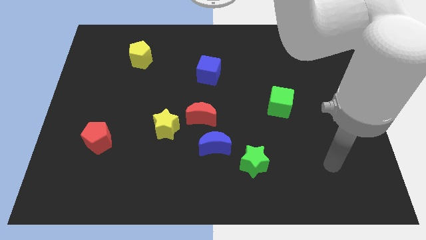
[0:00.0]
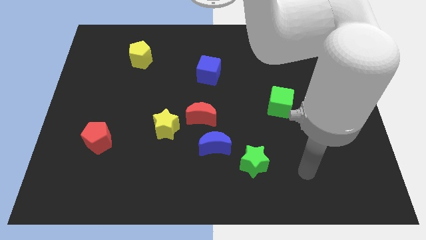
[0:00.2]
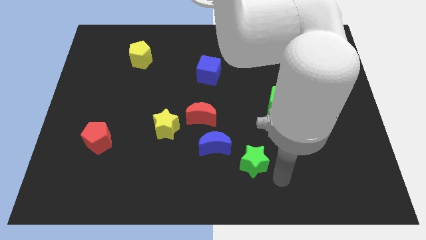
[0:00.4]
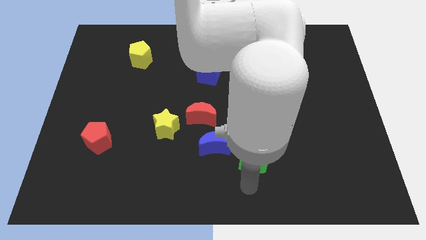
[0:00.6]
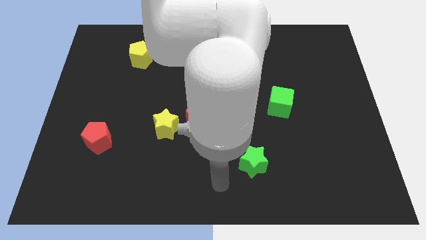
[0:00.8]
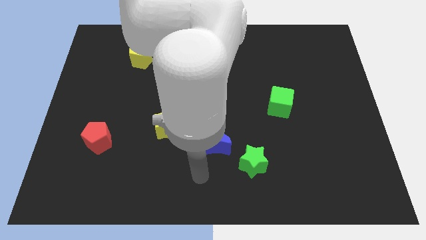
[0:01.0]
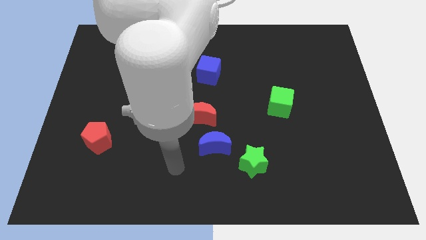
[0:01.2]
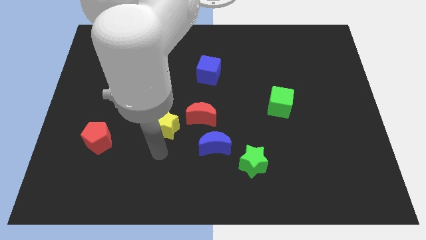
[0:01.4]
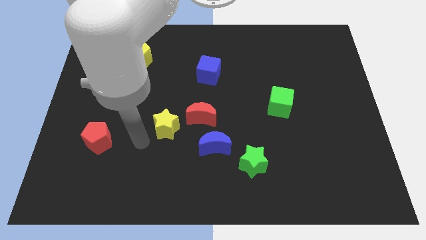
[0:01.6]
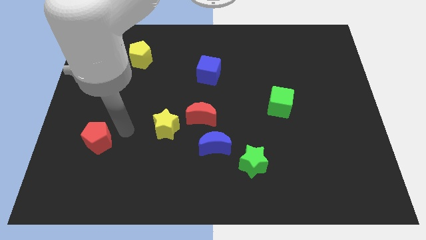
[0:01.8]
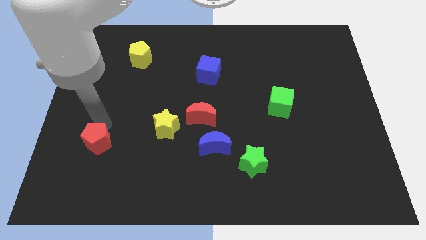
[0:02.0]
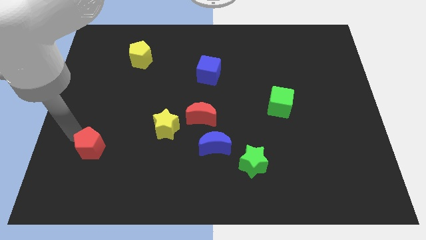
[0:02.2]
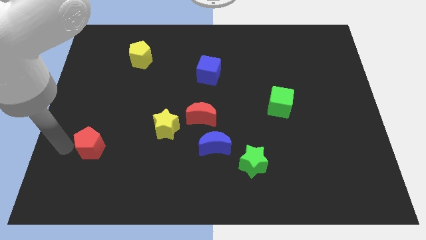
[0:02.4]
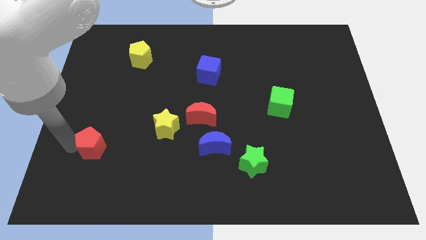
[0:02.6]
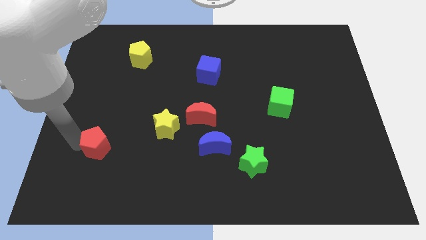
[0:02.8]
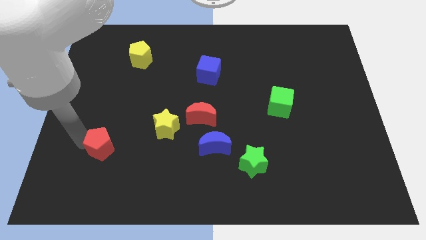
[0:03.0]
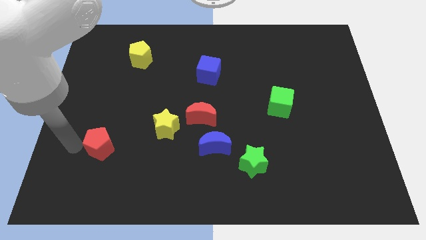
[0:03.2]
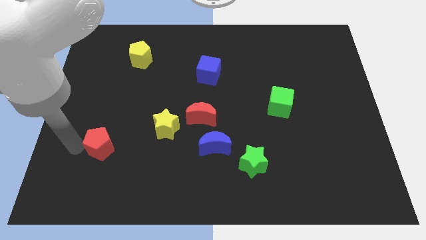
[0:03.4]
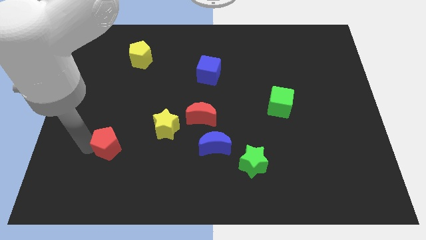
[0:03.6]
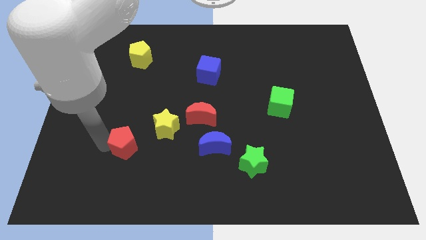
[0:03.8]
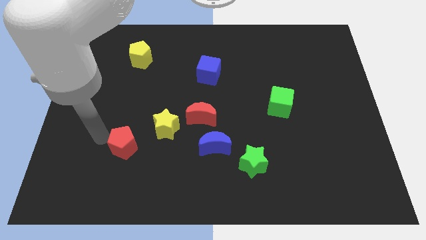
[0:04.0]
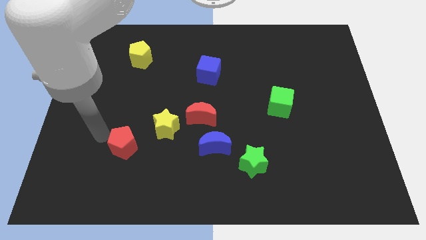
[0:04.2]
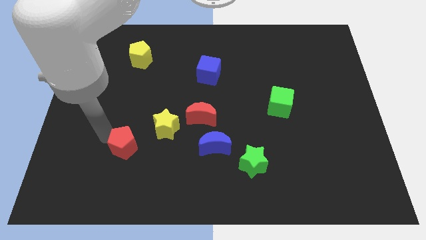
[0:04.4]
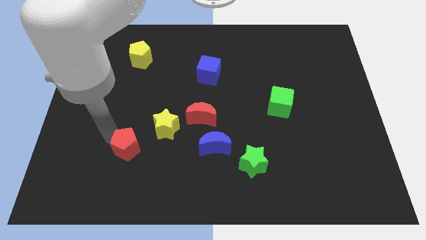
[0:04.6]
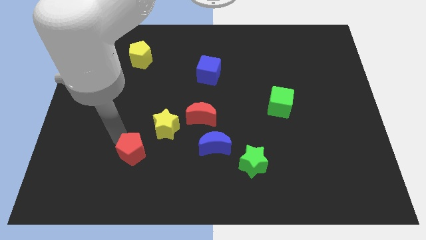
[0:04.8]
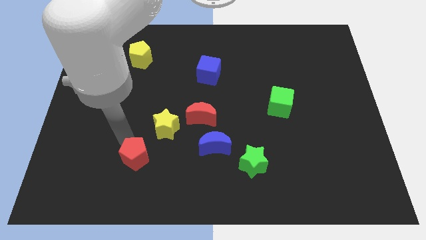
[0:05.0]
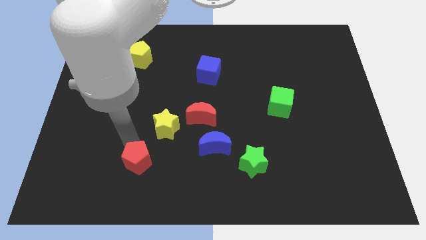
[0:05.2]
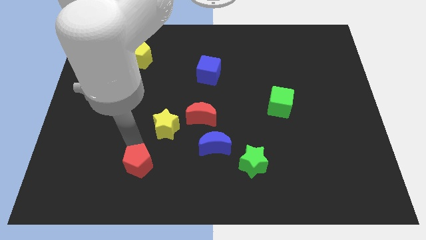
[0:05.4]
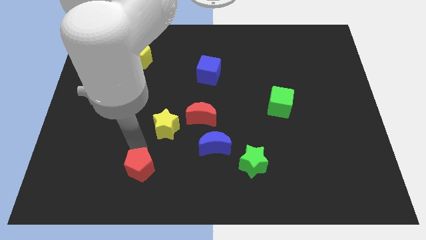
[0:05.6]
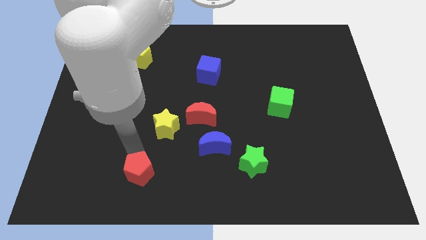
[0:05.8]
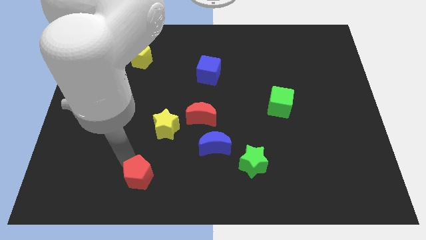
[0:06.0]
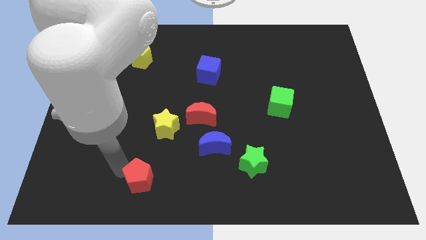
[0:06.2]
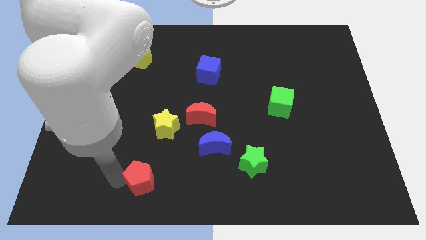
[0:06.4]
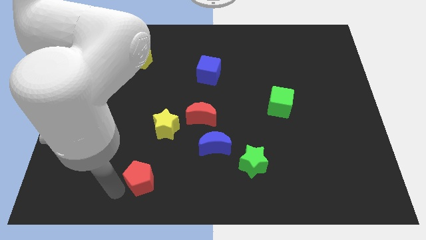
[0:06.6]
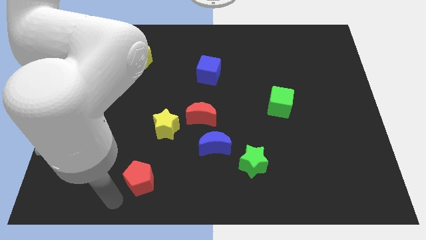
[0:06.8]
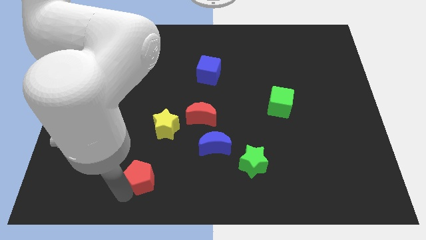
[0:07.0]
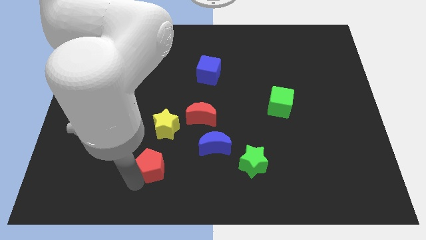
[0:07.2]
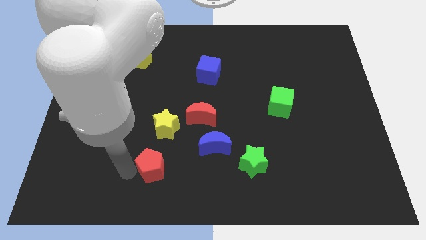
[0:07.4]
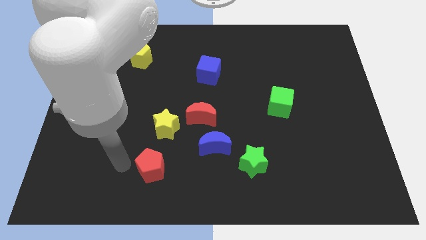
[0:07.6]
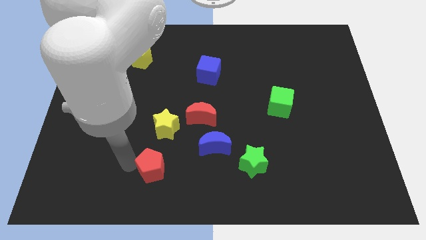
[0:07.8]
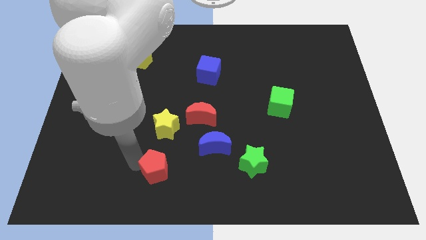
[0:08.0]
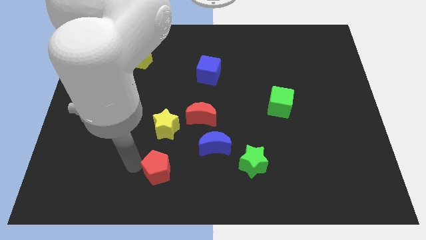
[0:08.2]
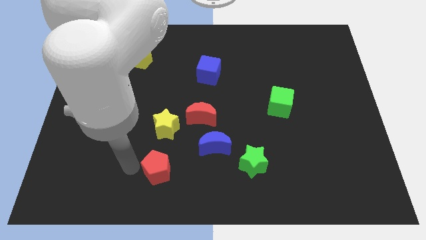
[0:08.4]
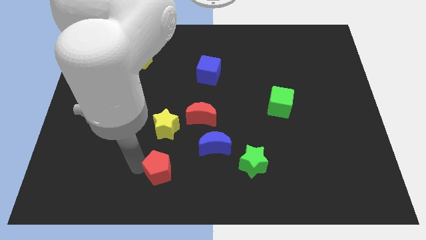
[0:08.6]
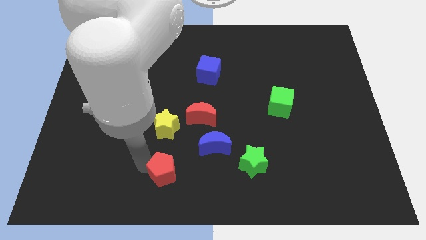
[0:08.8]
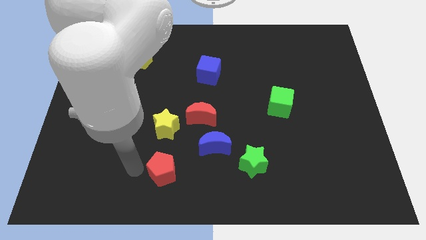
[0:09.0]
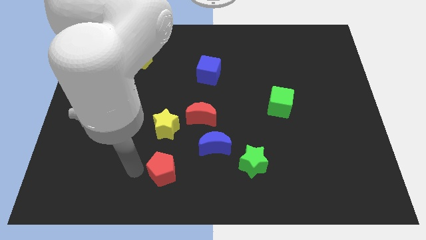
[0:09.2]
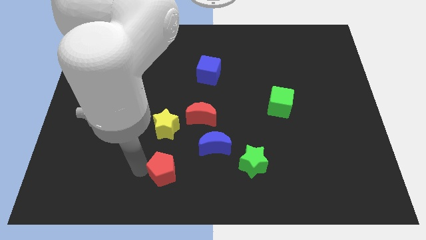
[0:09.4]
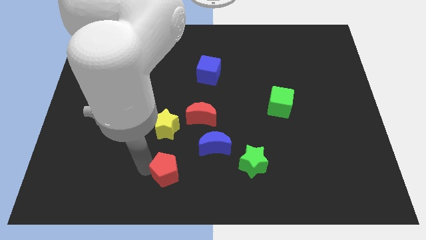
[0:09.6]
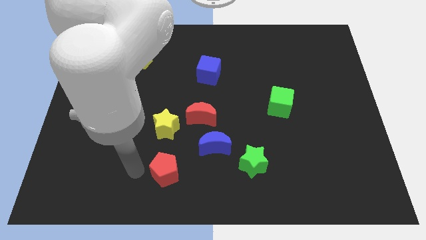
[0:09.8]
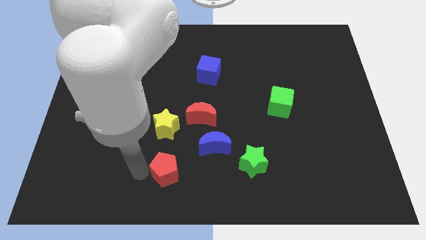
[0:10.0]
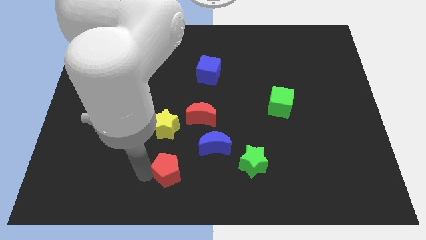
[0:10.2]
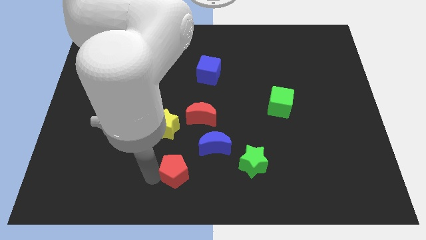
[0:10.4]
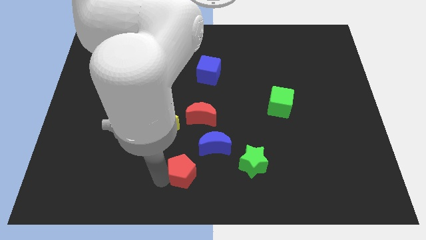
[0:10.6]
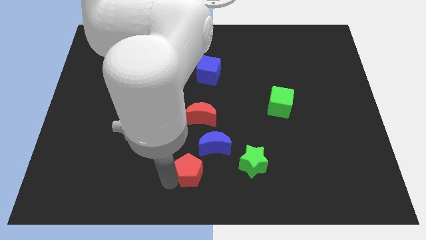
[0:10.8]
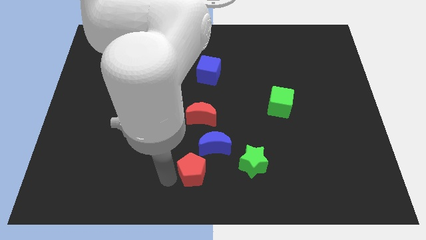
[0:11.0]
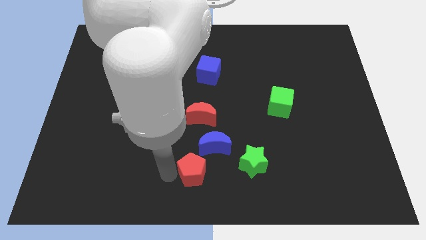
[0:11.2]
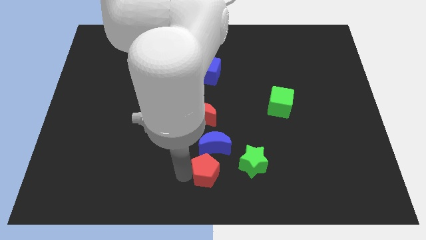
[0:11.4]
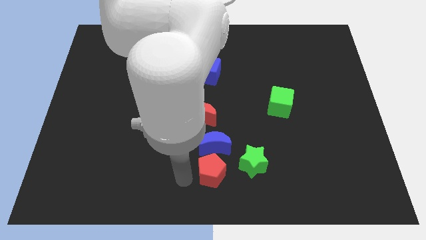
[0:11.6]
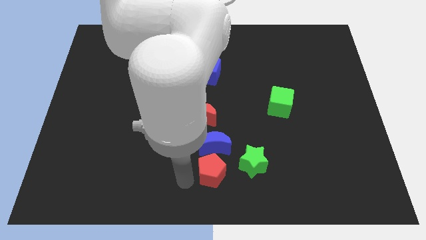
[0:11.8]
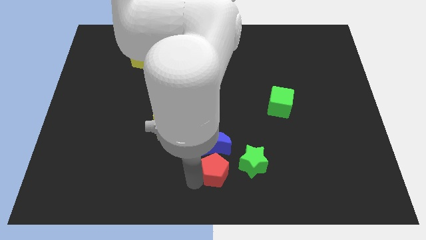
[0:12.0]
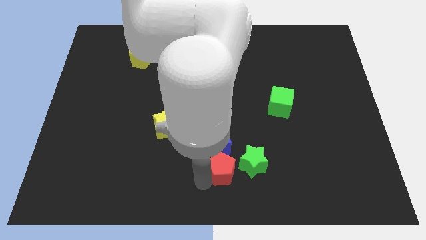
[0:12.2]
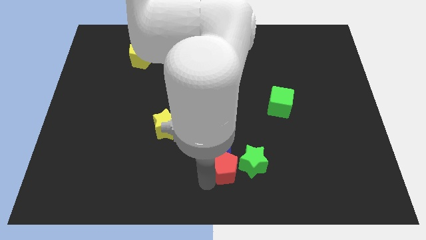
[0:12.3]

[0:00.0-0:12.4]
slide the red pentagon close to the green star

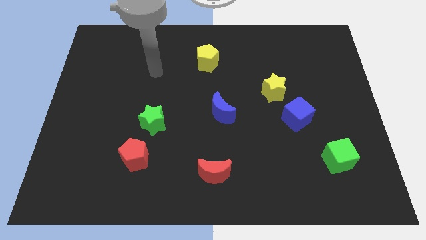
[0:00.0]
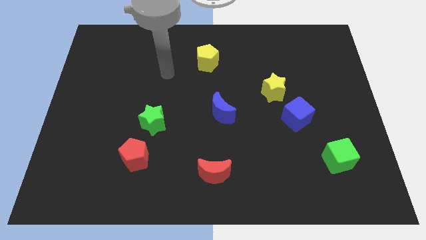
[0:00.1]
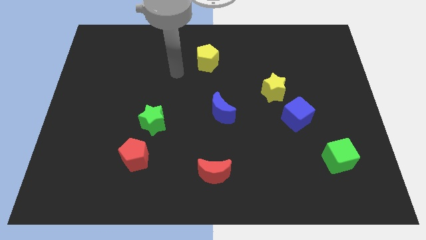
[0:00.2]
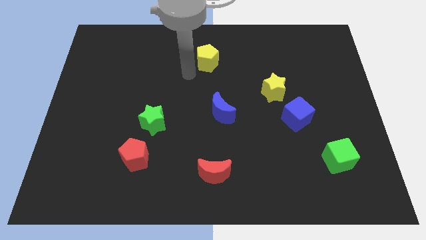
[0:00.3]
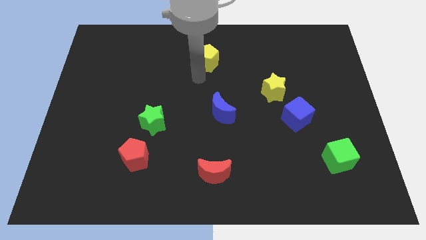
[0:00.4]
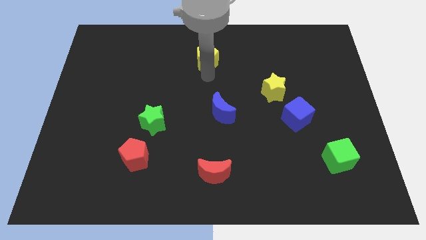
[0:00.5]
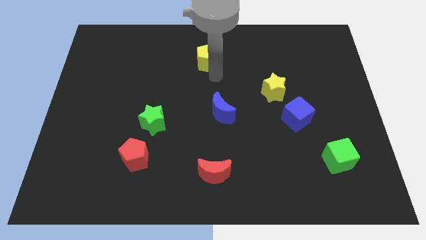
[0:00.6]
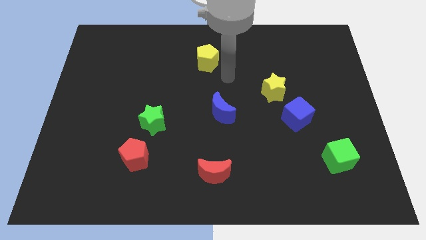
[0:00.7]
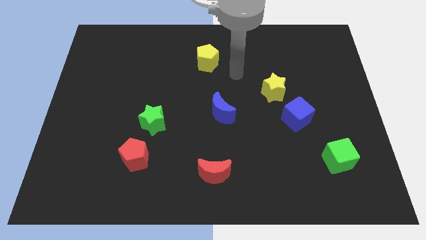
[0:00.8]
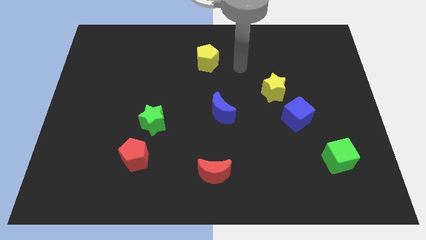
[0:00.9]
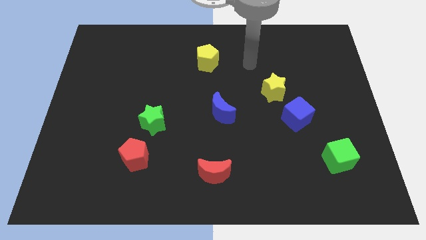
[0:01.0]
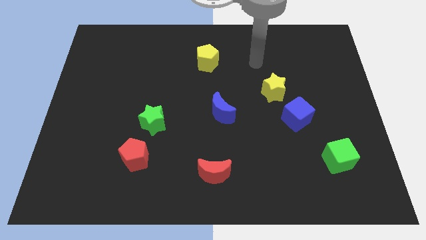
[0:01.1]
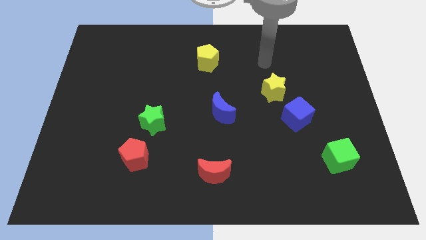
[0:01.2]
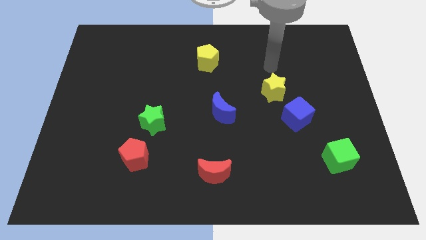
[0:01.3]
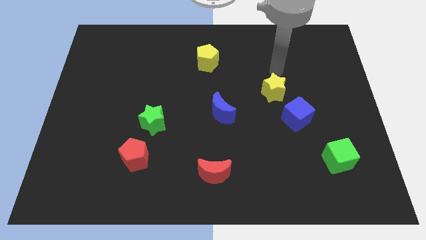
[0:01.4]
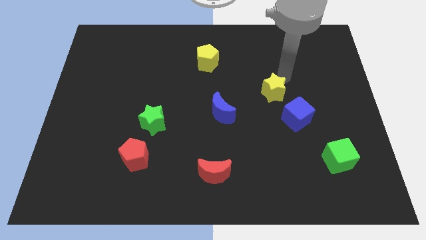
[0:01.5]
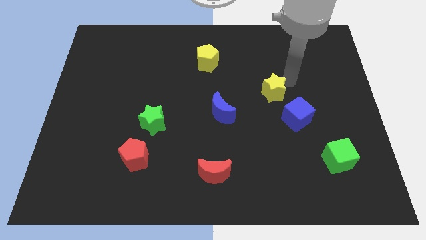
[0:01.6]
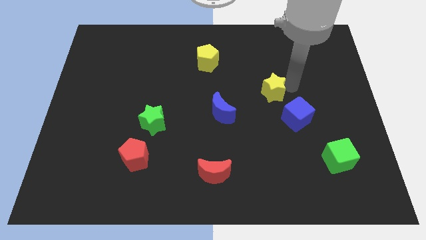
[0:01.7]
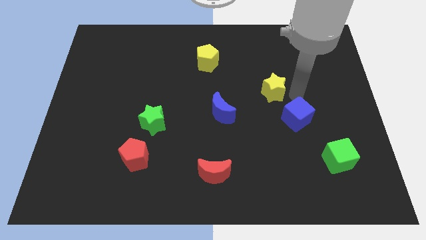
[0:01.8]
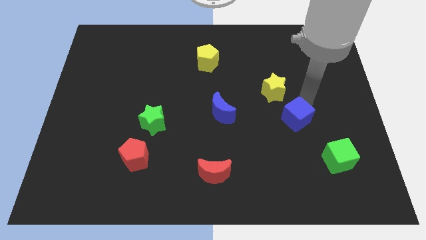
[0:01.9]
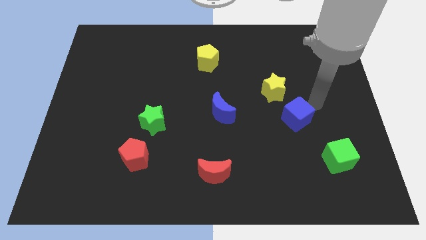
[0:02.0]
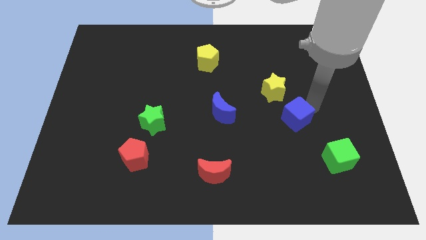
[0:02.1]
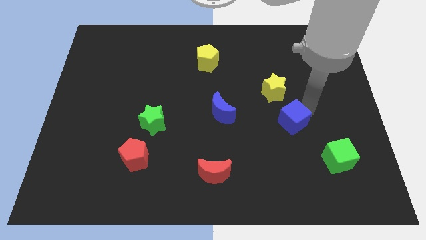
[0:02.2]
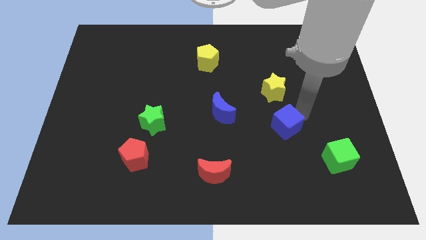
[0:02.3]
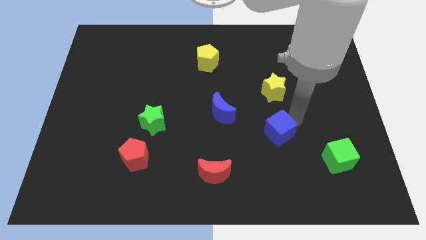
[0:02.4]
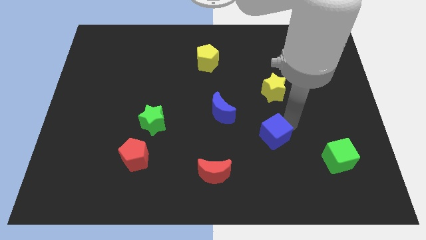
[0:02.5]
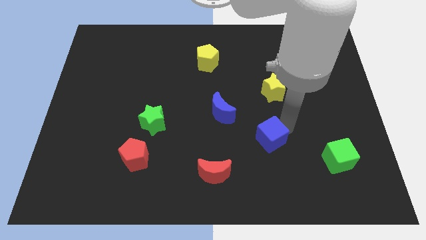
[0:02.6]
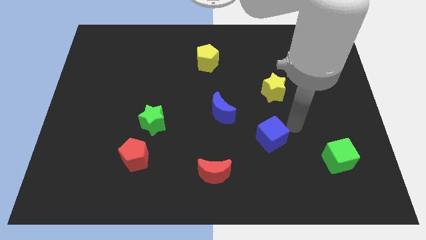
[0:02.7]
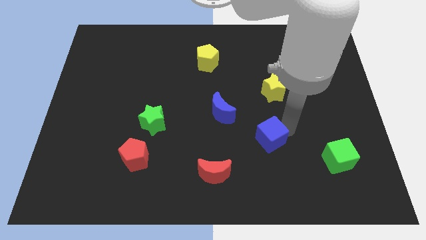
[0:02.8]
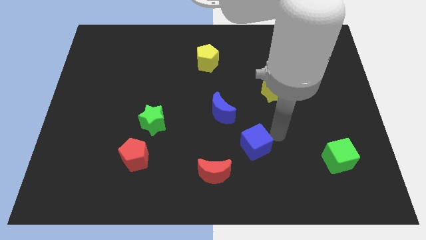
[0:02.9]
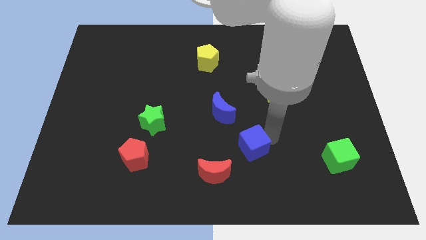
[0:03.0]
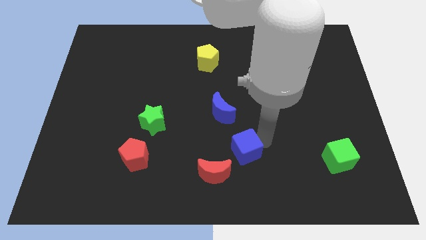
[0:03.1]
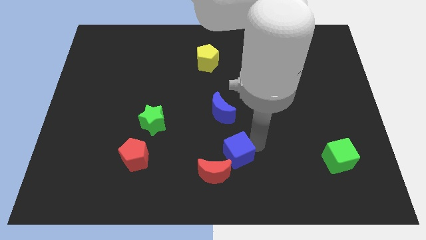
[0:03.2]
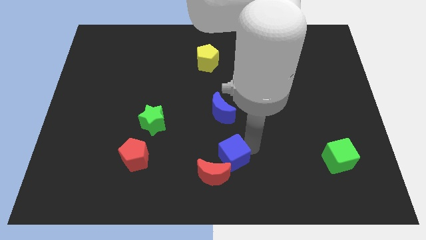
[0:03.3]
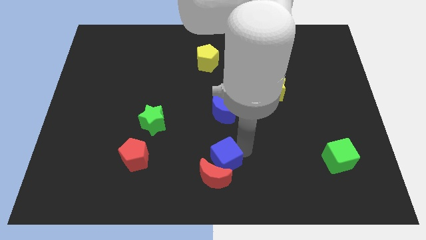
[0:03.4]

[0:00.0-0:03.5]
put the blue cube towards the red moon
